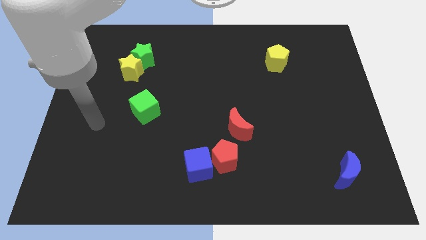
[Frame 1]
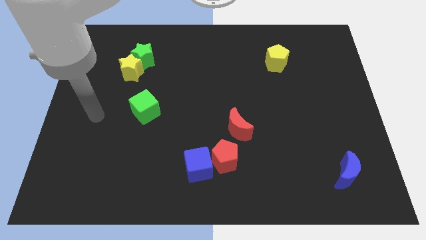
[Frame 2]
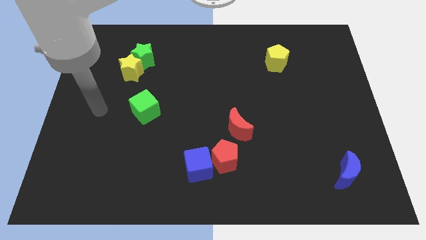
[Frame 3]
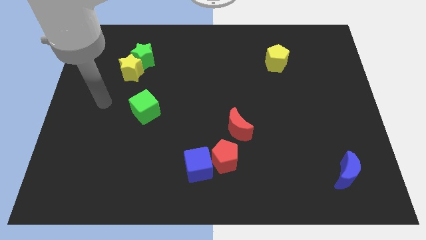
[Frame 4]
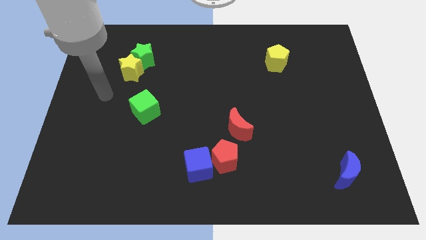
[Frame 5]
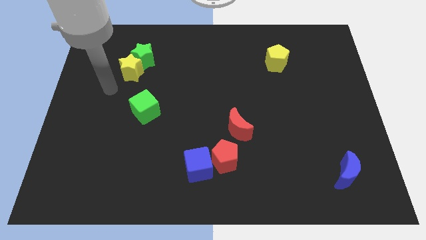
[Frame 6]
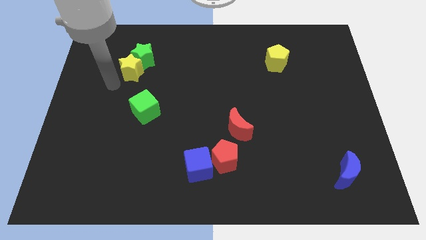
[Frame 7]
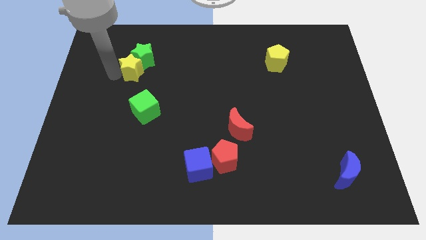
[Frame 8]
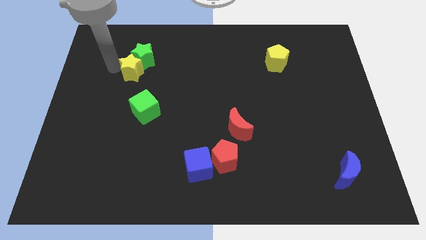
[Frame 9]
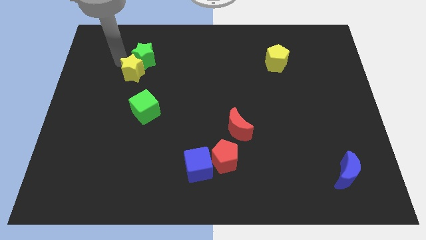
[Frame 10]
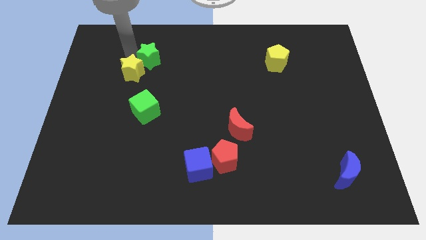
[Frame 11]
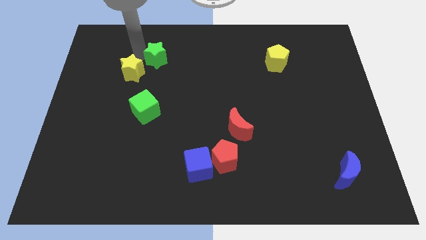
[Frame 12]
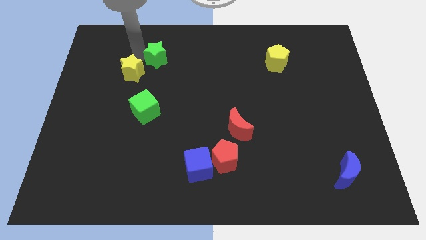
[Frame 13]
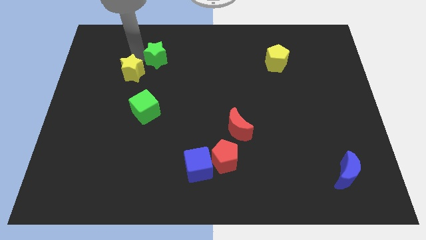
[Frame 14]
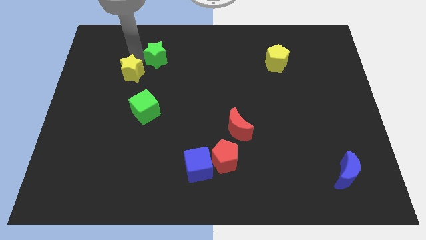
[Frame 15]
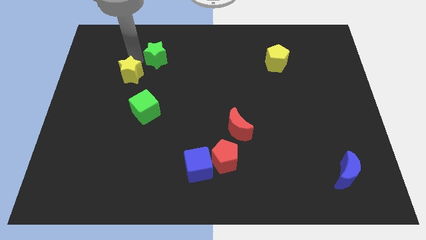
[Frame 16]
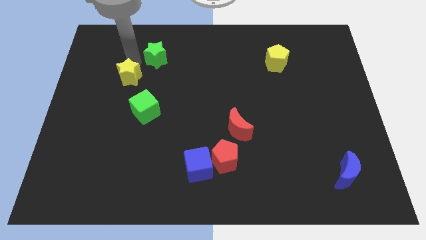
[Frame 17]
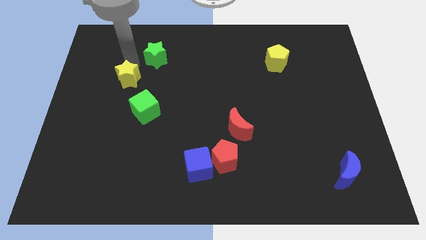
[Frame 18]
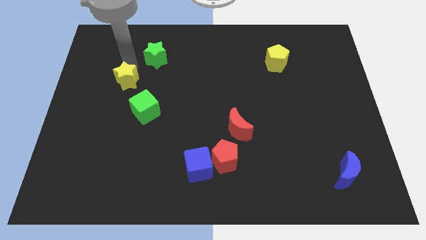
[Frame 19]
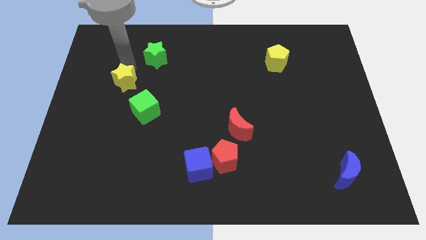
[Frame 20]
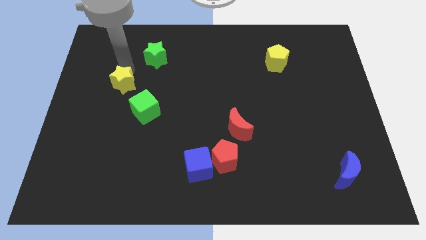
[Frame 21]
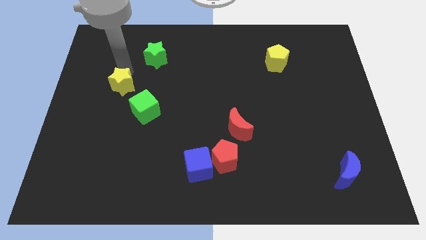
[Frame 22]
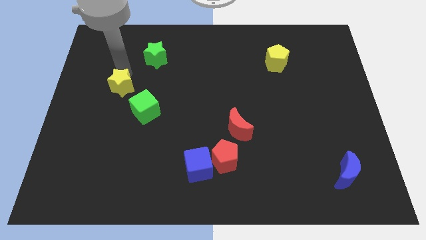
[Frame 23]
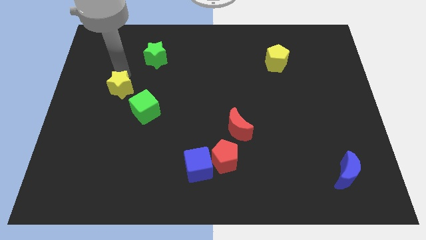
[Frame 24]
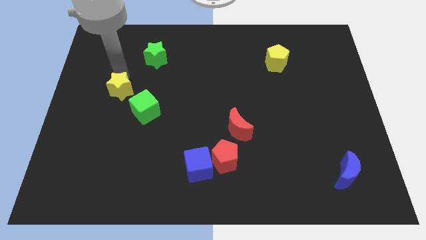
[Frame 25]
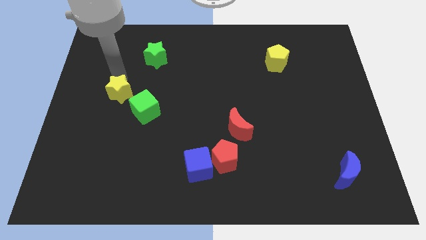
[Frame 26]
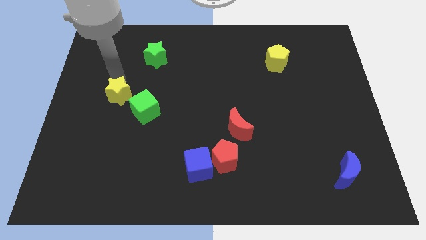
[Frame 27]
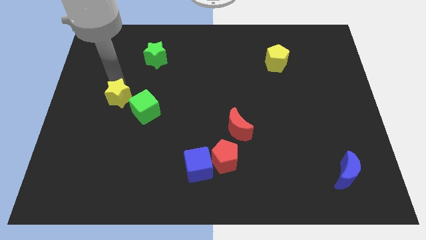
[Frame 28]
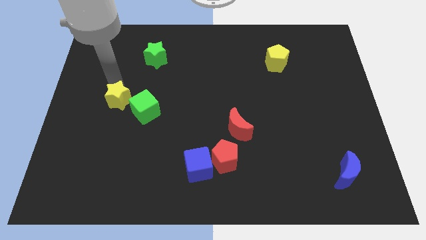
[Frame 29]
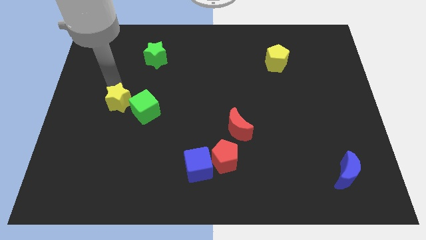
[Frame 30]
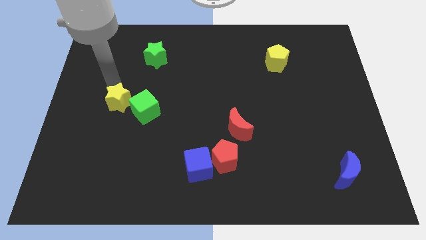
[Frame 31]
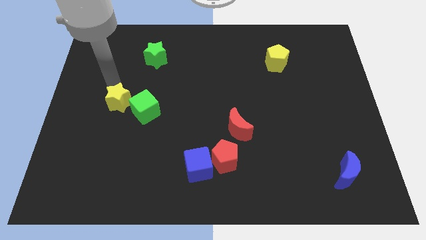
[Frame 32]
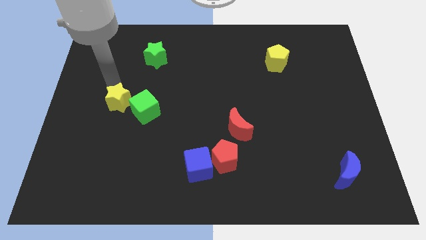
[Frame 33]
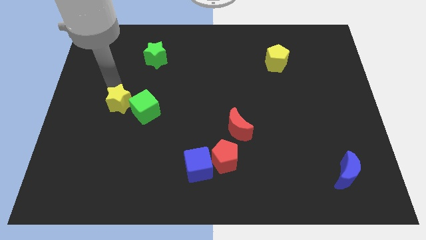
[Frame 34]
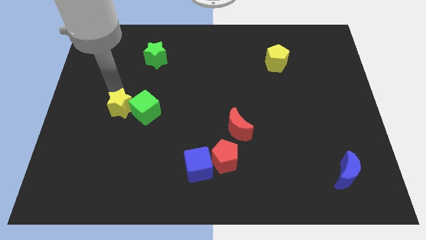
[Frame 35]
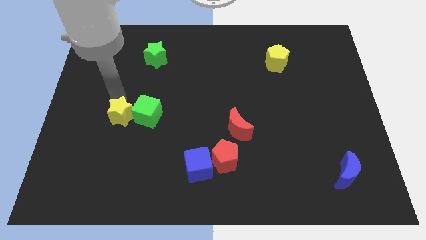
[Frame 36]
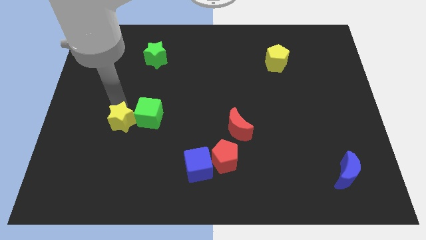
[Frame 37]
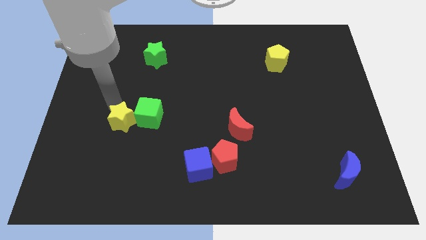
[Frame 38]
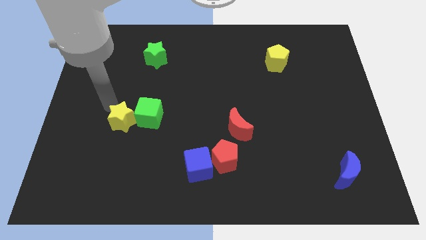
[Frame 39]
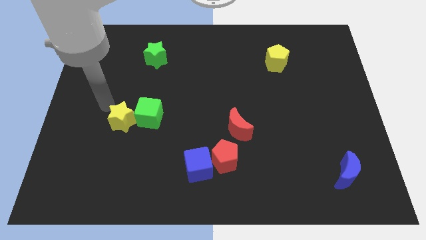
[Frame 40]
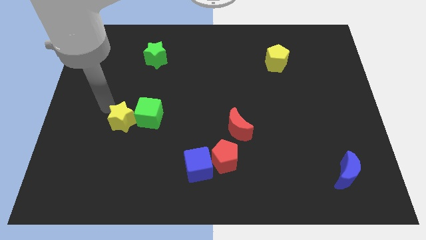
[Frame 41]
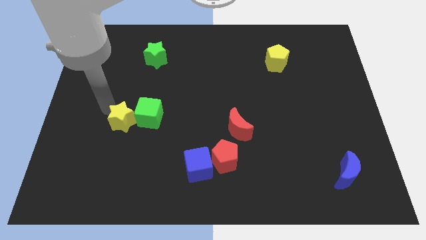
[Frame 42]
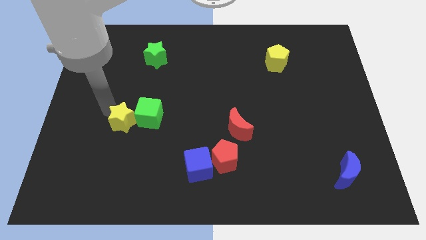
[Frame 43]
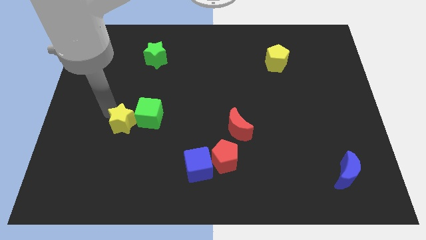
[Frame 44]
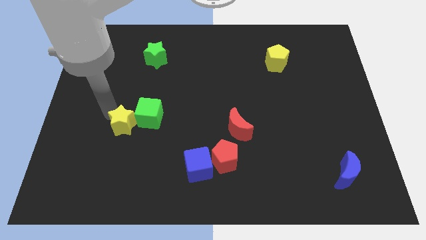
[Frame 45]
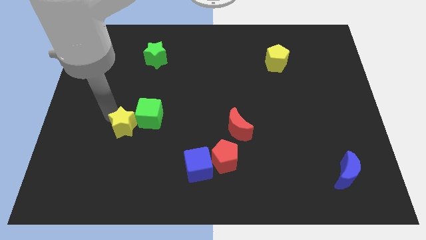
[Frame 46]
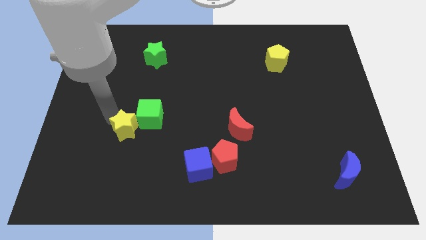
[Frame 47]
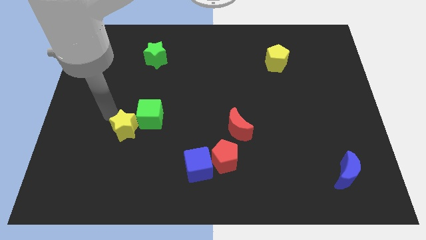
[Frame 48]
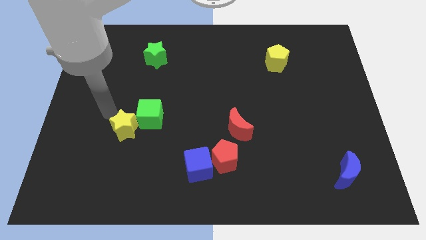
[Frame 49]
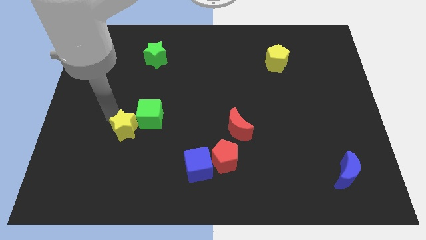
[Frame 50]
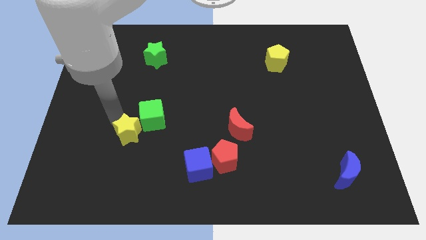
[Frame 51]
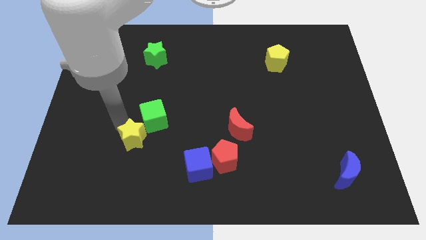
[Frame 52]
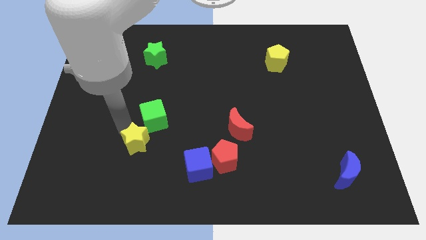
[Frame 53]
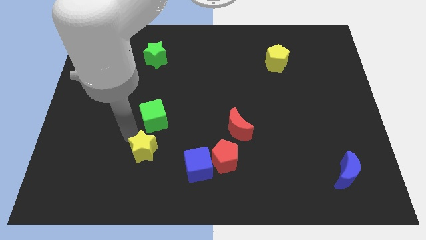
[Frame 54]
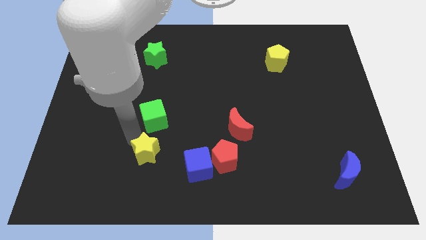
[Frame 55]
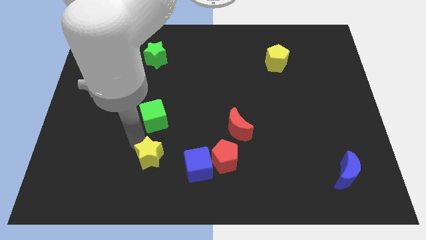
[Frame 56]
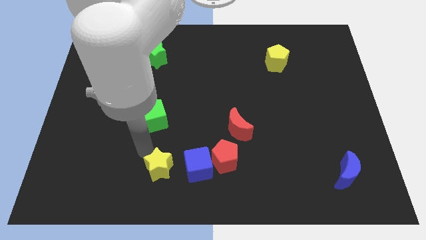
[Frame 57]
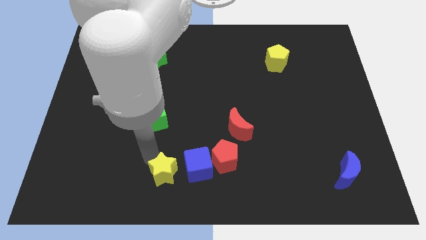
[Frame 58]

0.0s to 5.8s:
push the yellow star to the bottom side

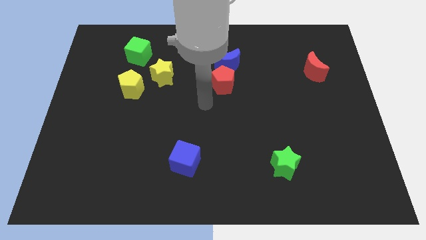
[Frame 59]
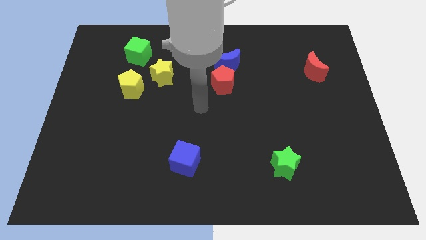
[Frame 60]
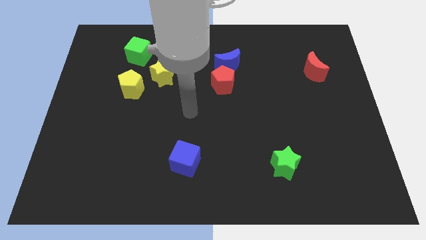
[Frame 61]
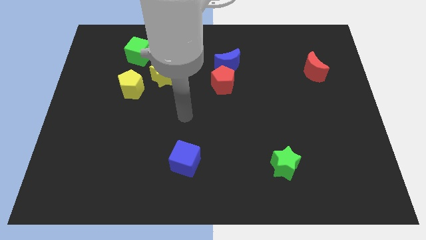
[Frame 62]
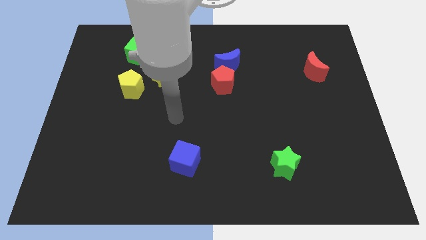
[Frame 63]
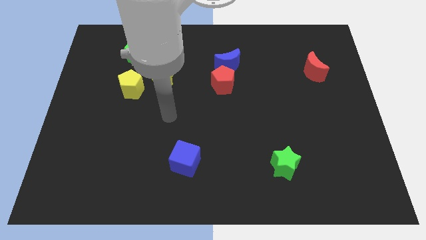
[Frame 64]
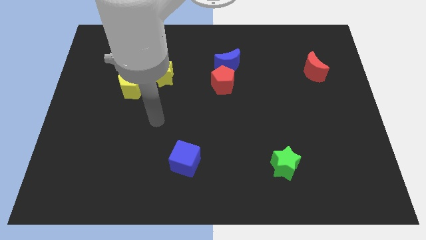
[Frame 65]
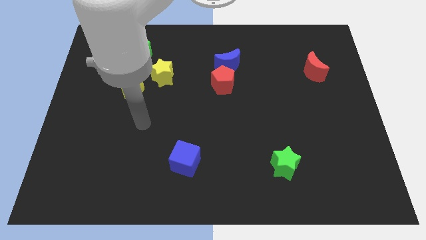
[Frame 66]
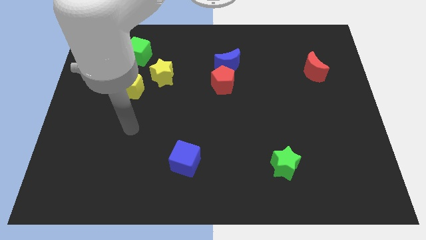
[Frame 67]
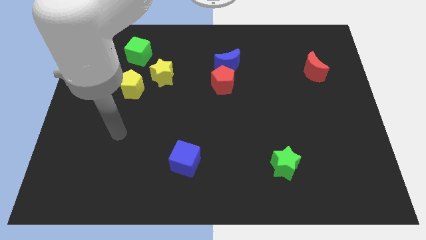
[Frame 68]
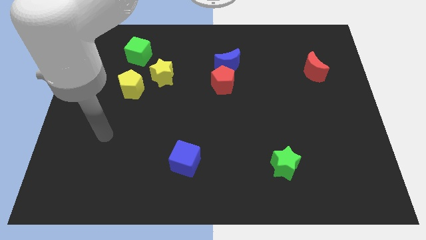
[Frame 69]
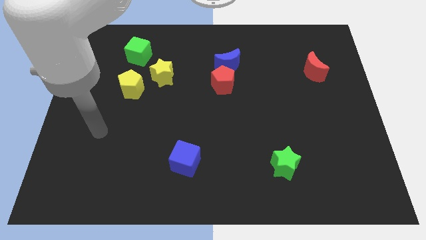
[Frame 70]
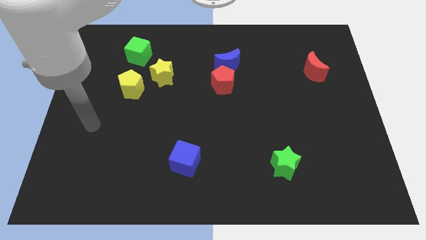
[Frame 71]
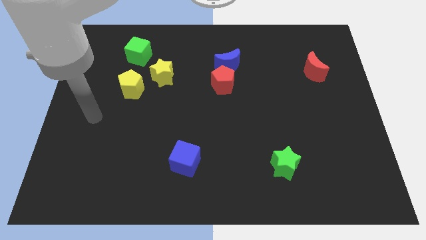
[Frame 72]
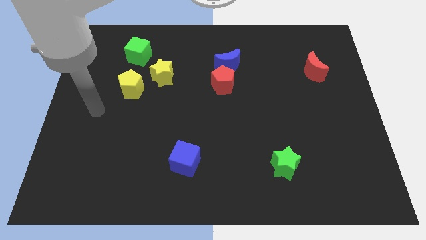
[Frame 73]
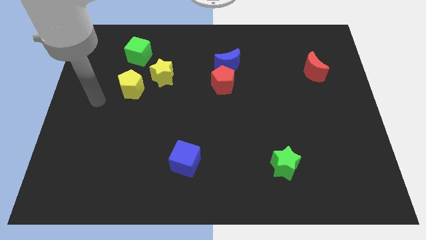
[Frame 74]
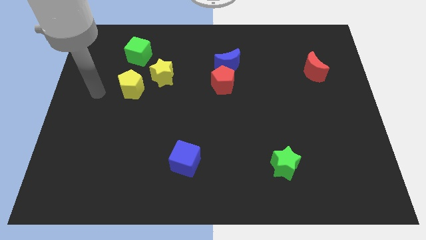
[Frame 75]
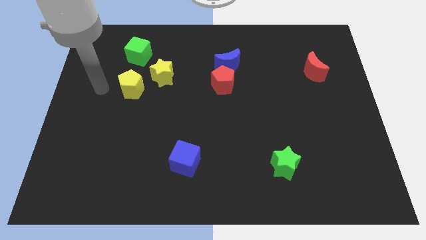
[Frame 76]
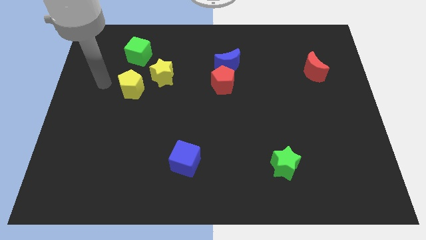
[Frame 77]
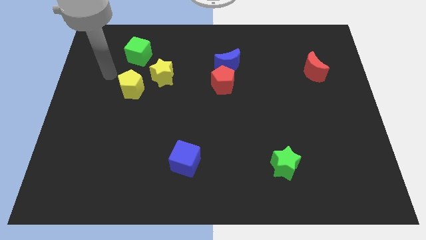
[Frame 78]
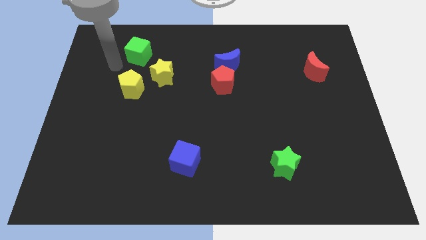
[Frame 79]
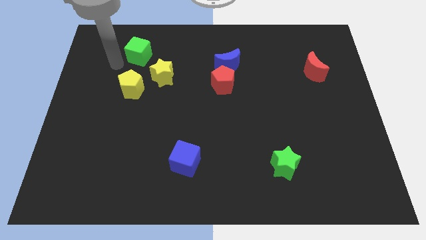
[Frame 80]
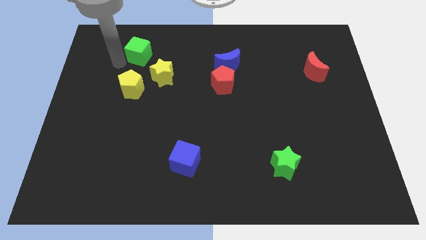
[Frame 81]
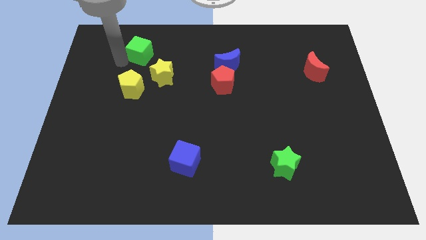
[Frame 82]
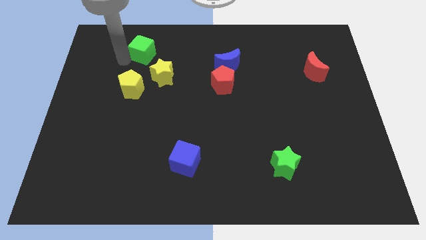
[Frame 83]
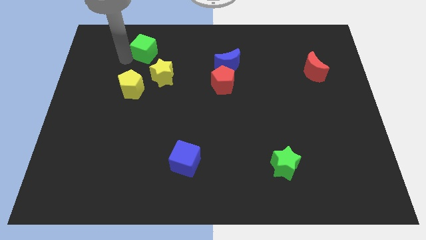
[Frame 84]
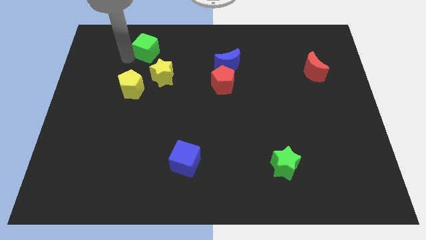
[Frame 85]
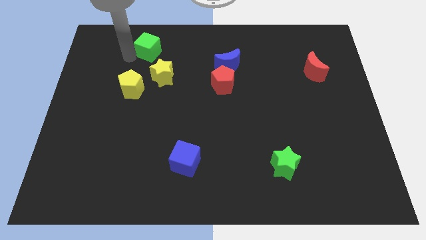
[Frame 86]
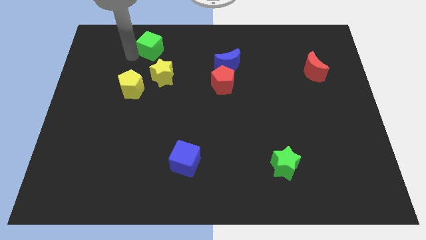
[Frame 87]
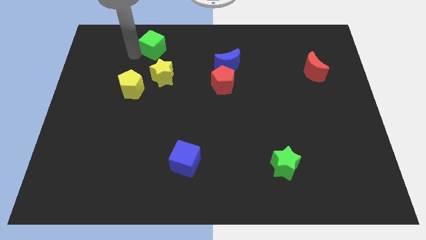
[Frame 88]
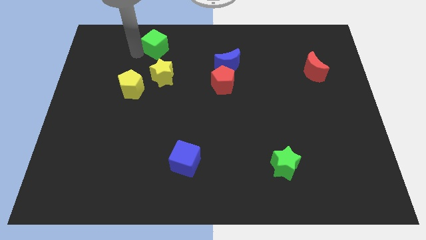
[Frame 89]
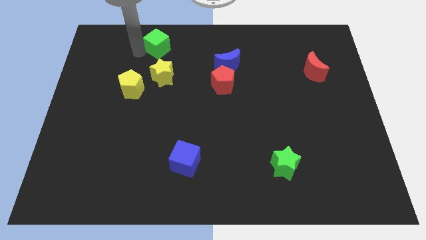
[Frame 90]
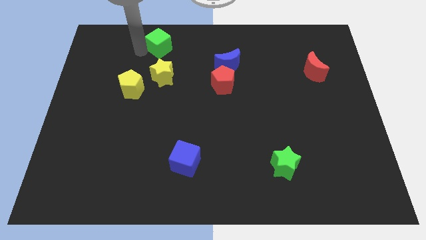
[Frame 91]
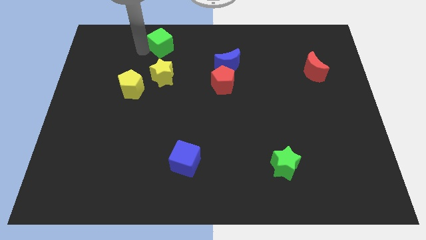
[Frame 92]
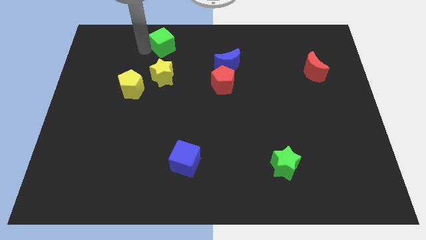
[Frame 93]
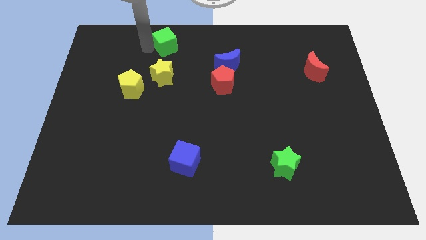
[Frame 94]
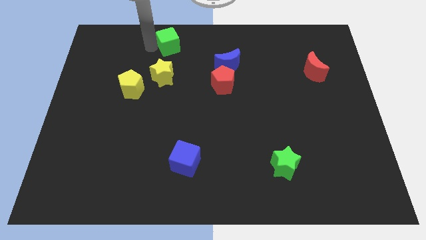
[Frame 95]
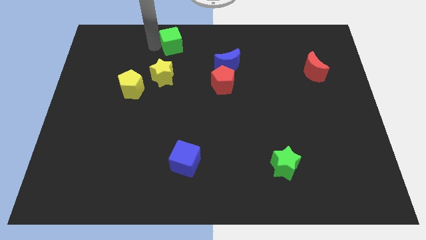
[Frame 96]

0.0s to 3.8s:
put the green cube to the top
